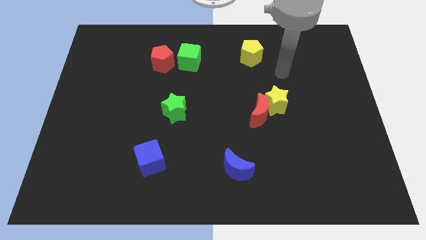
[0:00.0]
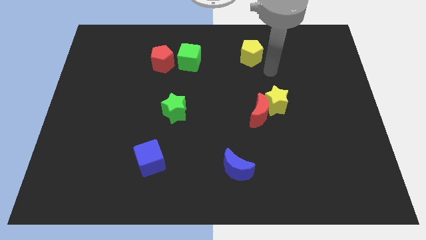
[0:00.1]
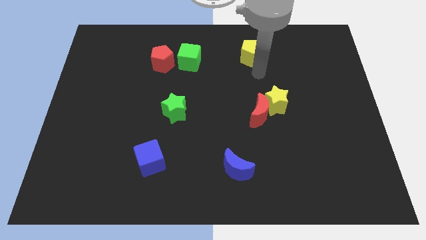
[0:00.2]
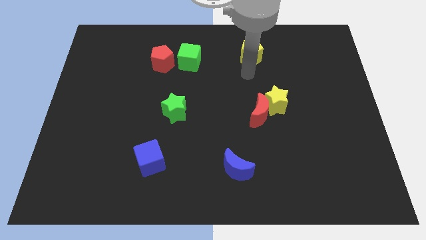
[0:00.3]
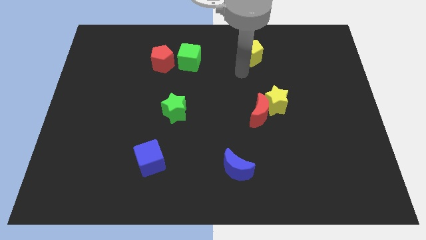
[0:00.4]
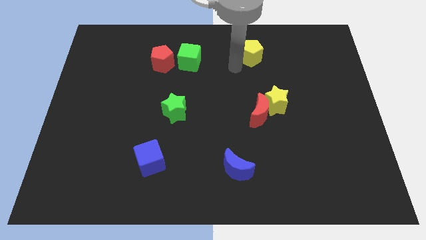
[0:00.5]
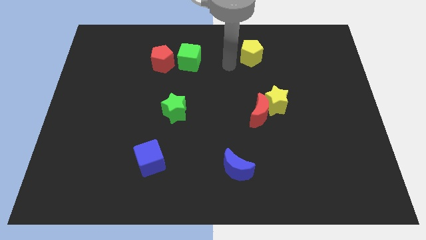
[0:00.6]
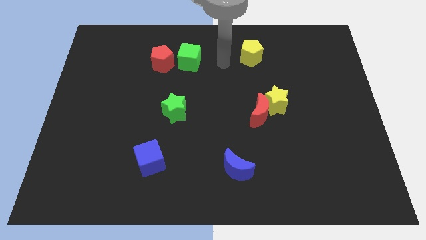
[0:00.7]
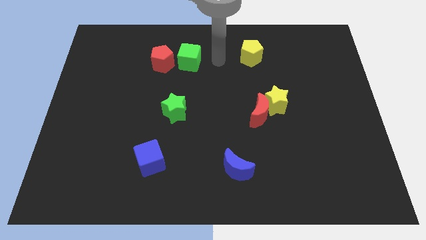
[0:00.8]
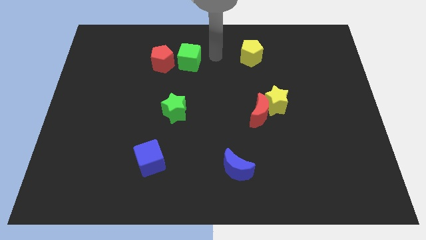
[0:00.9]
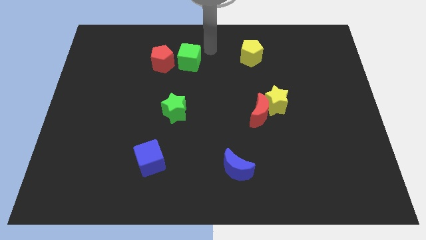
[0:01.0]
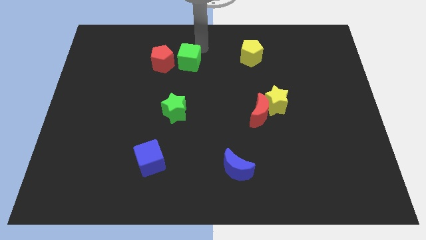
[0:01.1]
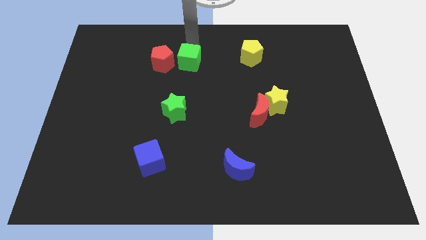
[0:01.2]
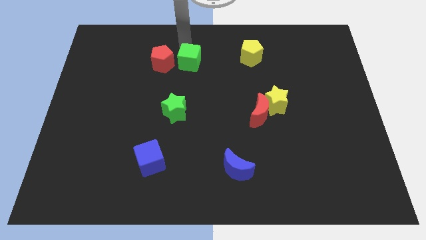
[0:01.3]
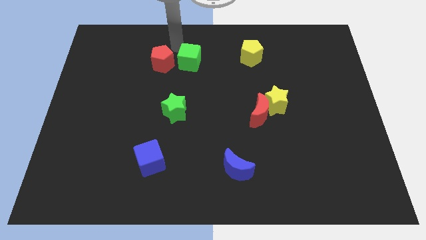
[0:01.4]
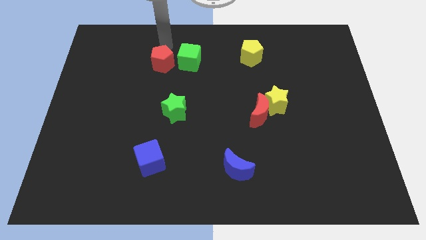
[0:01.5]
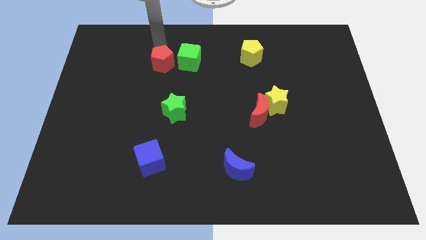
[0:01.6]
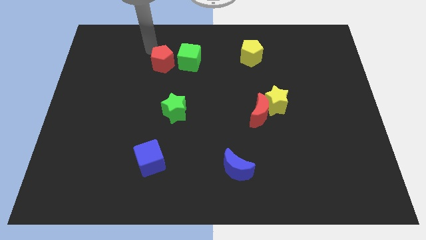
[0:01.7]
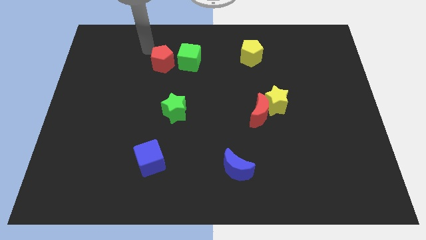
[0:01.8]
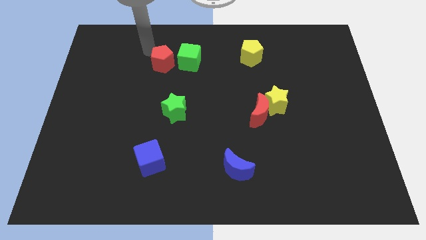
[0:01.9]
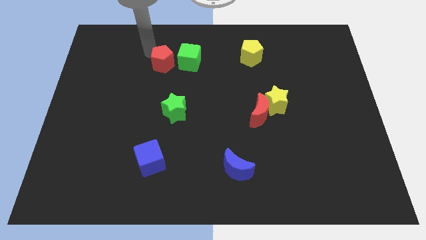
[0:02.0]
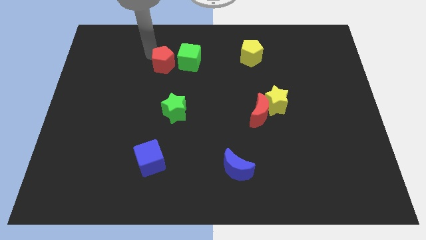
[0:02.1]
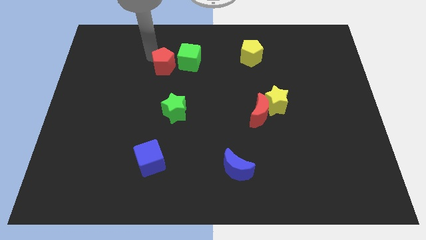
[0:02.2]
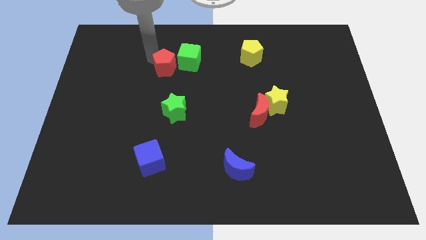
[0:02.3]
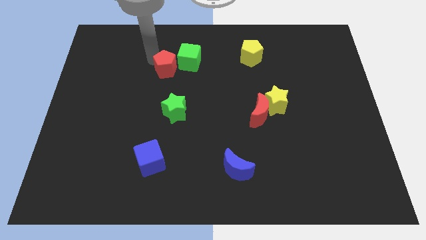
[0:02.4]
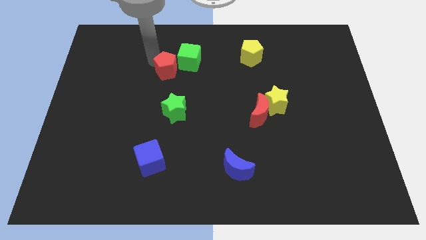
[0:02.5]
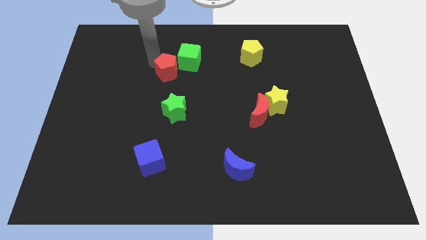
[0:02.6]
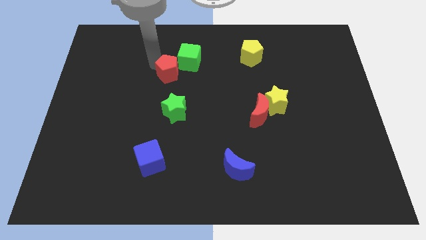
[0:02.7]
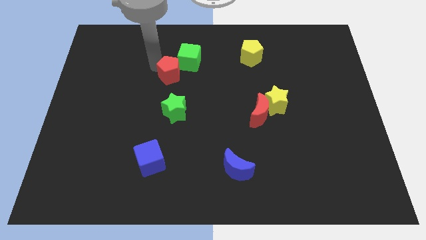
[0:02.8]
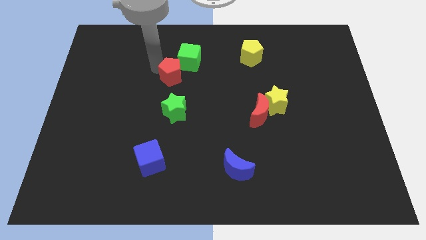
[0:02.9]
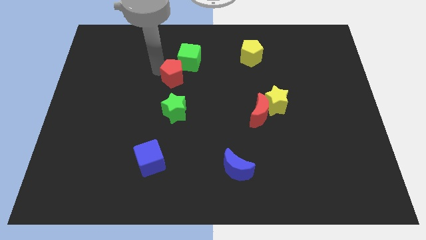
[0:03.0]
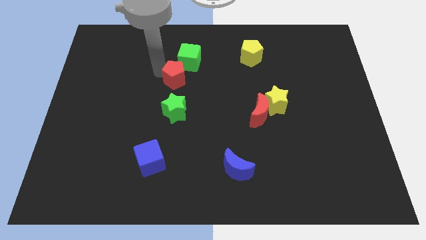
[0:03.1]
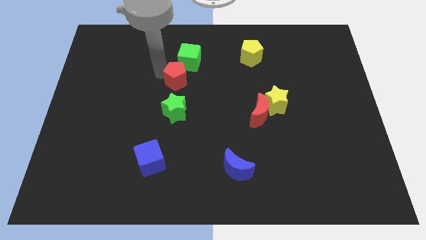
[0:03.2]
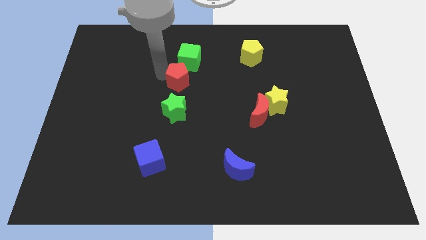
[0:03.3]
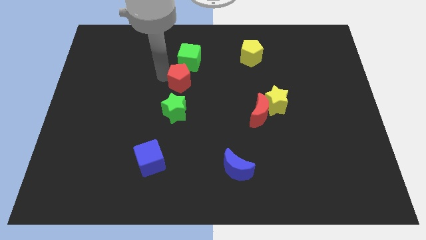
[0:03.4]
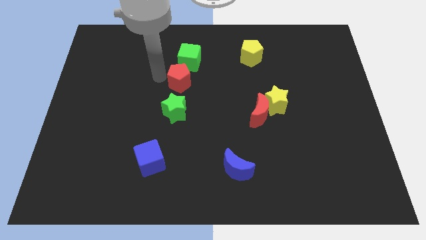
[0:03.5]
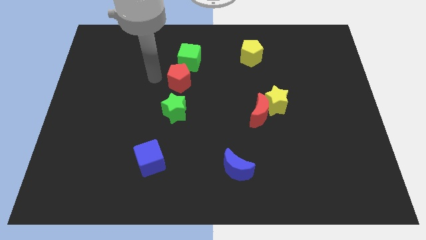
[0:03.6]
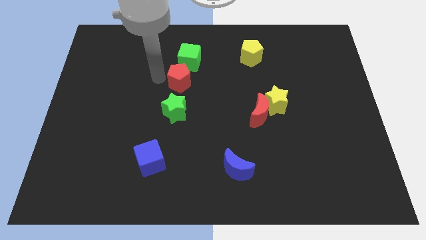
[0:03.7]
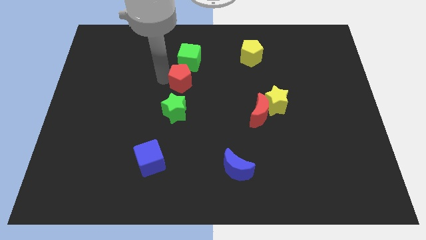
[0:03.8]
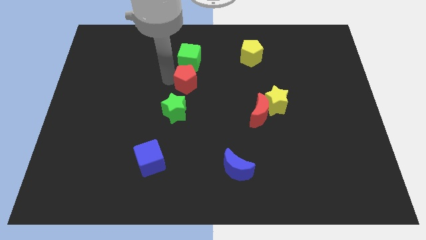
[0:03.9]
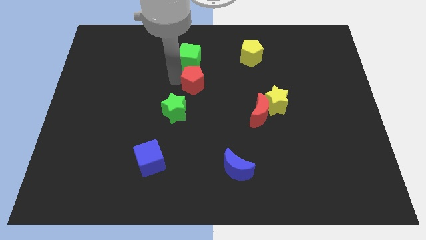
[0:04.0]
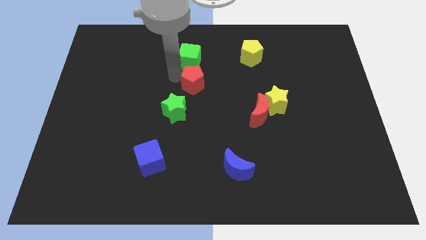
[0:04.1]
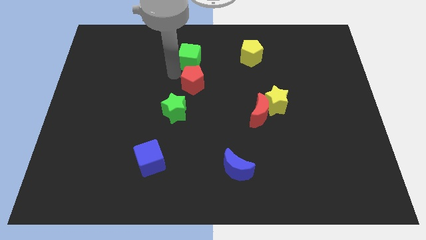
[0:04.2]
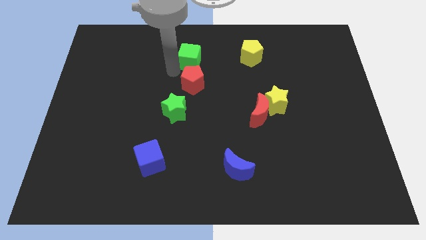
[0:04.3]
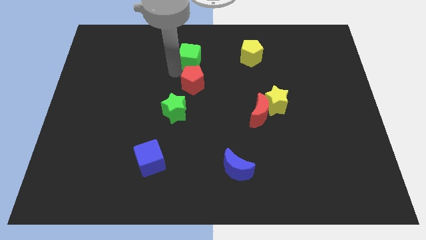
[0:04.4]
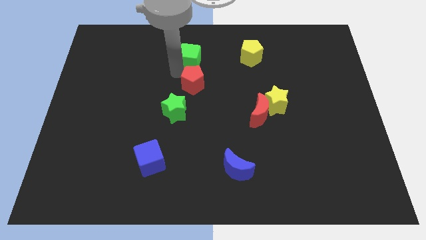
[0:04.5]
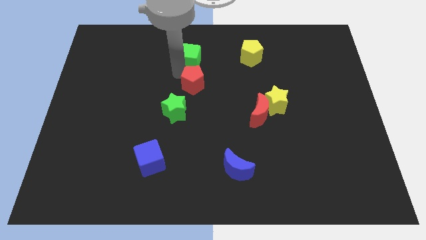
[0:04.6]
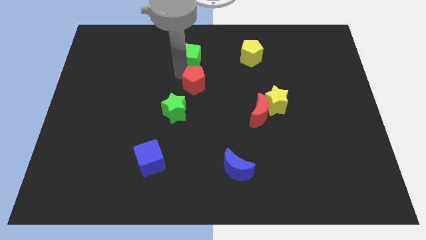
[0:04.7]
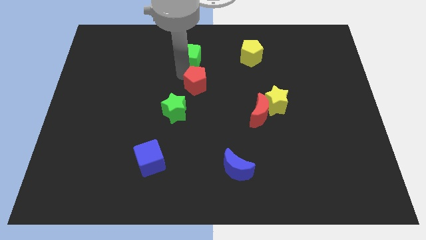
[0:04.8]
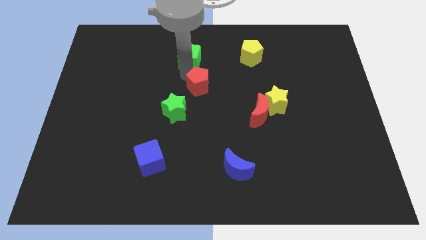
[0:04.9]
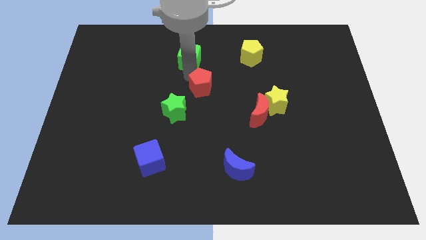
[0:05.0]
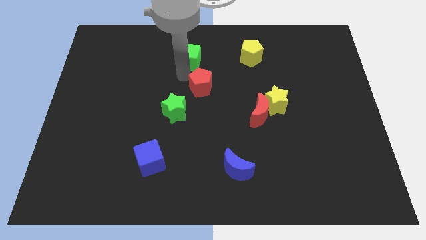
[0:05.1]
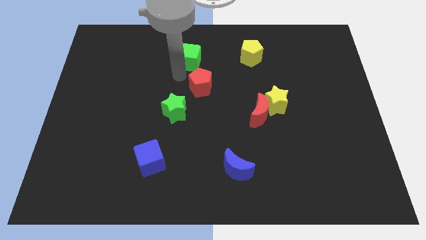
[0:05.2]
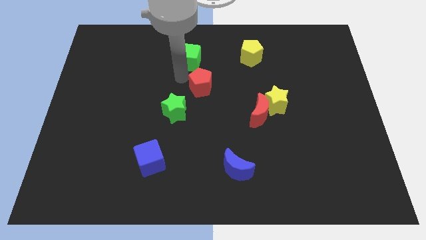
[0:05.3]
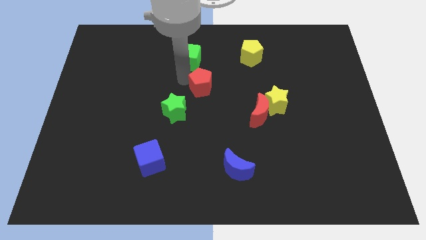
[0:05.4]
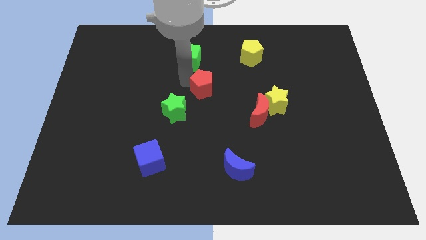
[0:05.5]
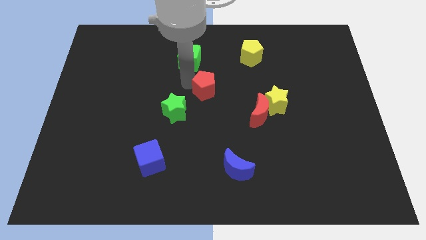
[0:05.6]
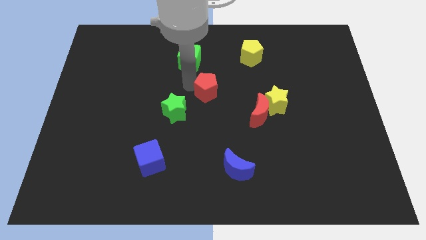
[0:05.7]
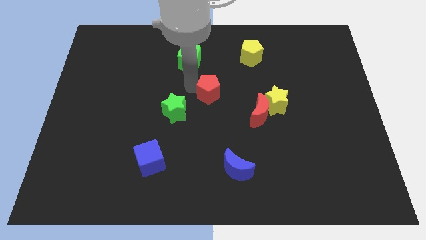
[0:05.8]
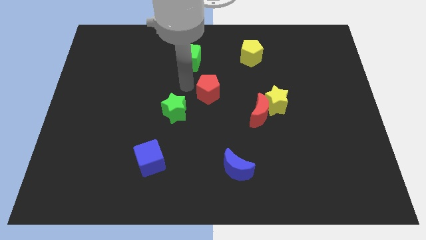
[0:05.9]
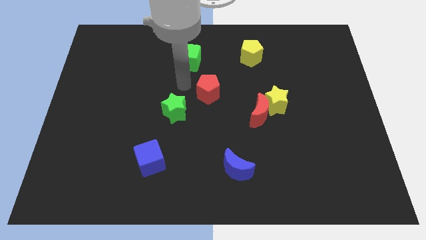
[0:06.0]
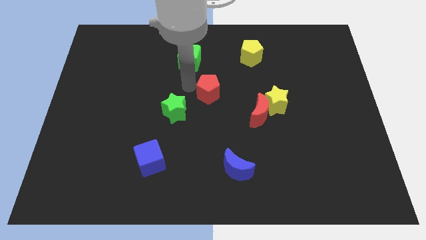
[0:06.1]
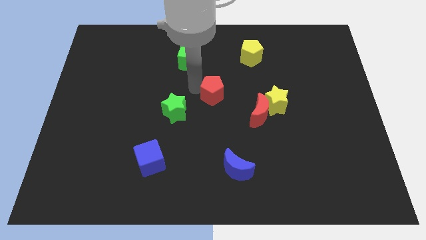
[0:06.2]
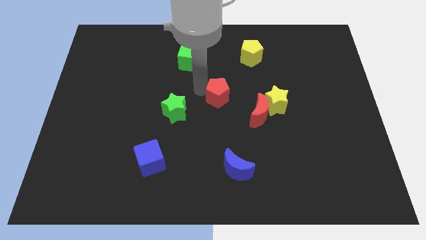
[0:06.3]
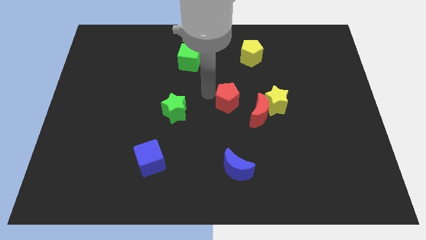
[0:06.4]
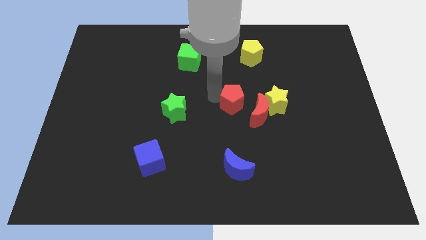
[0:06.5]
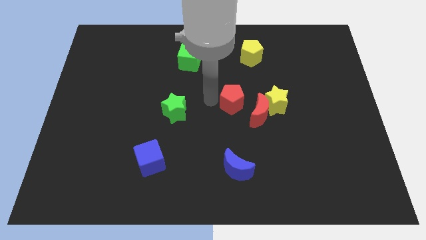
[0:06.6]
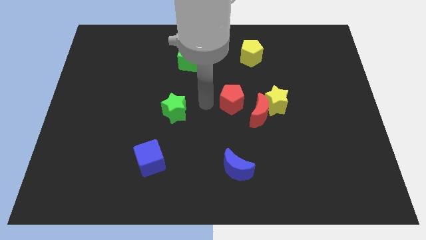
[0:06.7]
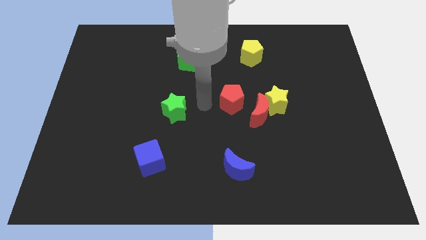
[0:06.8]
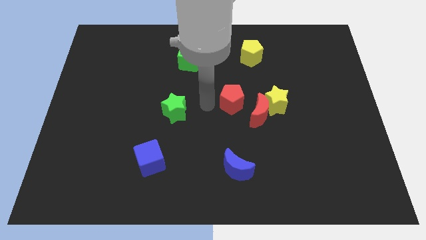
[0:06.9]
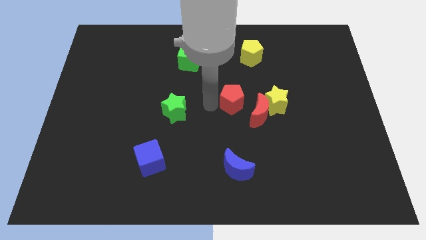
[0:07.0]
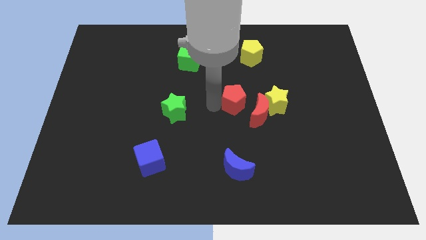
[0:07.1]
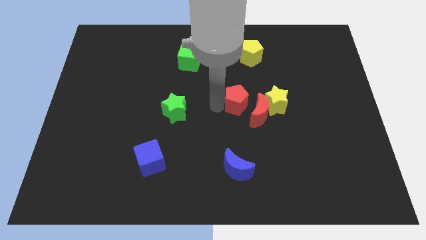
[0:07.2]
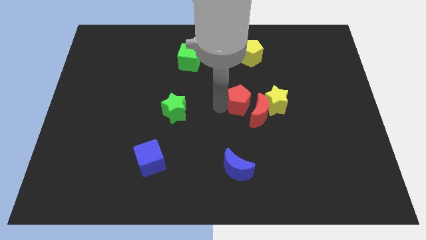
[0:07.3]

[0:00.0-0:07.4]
push the red pentagon towards the red moon
